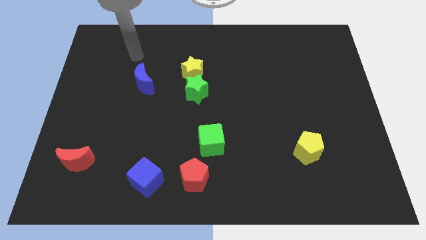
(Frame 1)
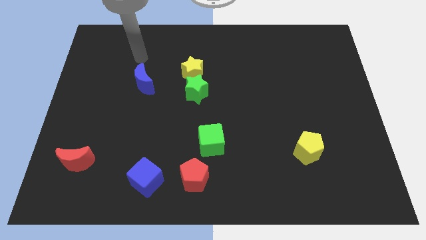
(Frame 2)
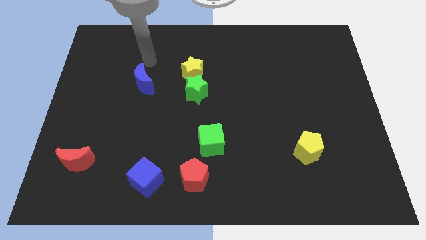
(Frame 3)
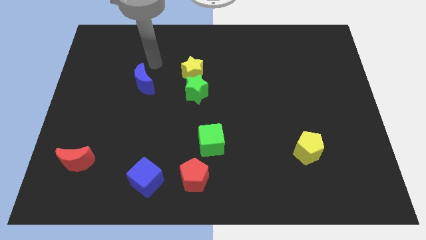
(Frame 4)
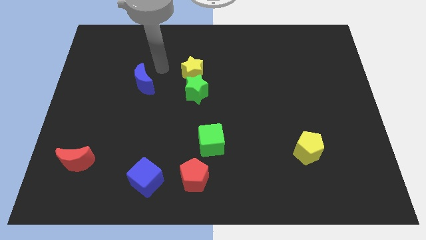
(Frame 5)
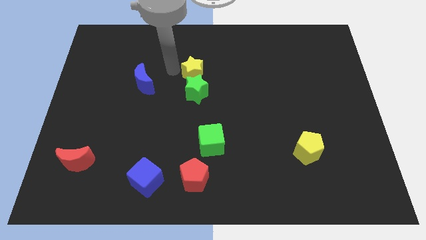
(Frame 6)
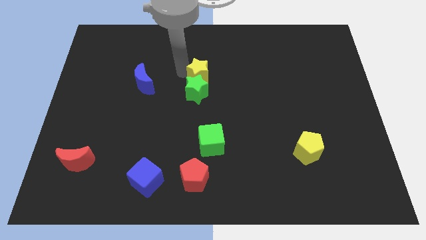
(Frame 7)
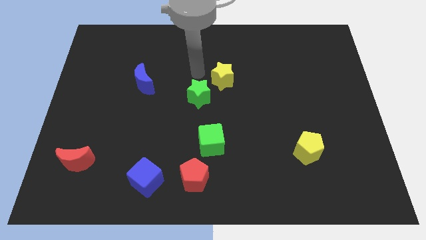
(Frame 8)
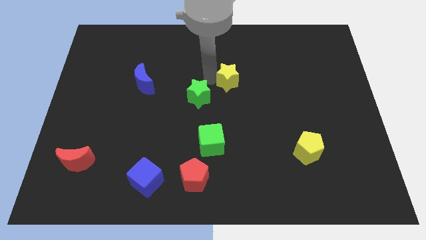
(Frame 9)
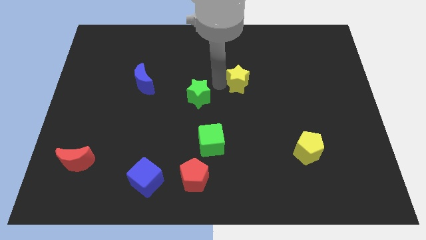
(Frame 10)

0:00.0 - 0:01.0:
separate the green star from the yellow star

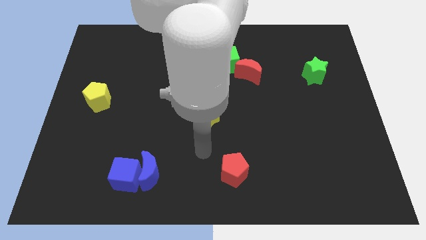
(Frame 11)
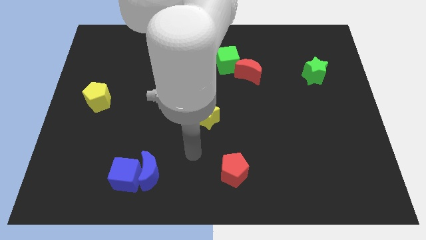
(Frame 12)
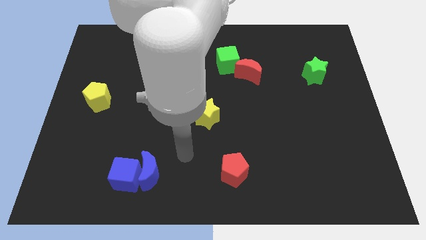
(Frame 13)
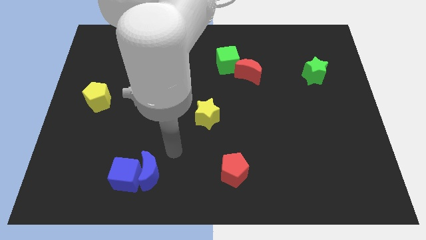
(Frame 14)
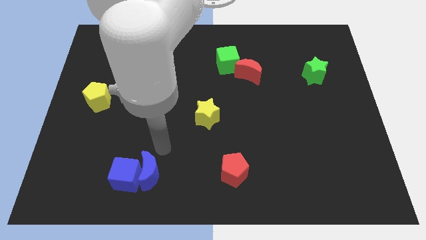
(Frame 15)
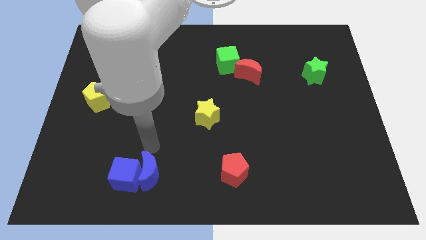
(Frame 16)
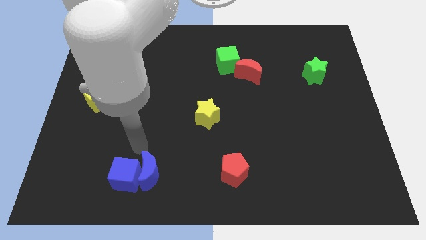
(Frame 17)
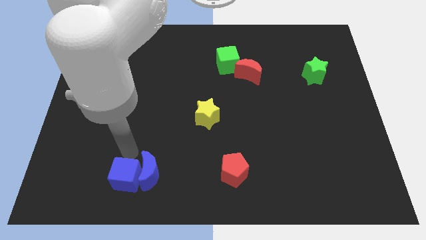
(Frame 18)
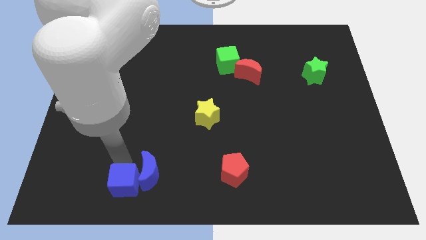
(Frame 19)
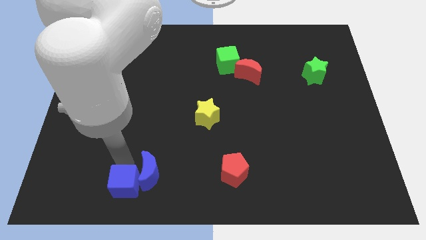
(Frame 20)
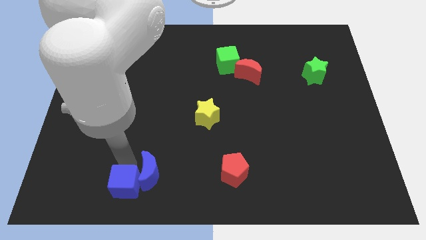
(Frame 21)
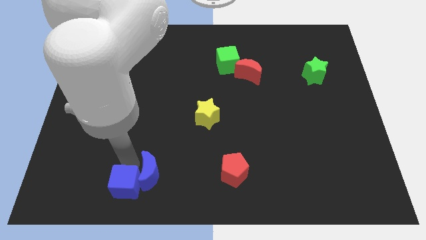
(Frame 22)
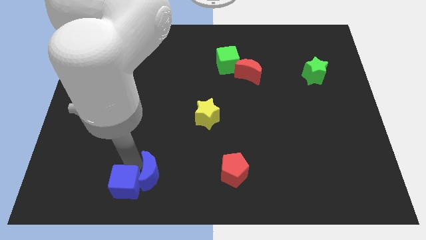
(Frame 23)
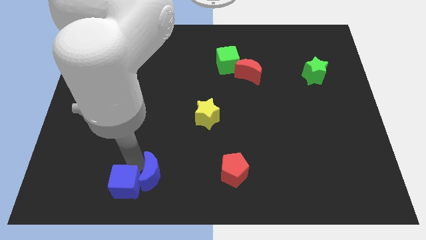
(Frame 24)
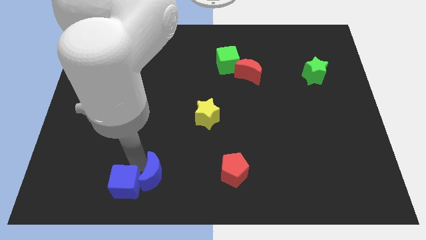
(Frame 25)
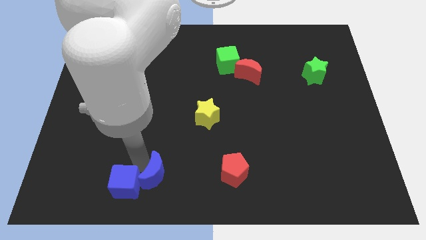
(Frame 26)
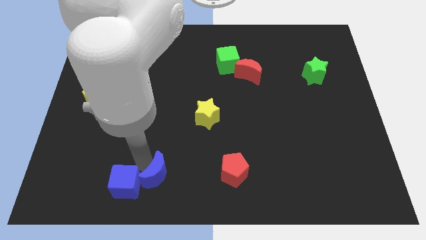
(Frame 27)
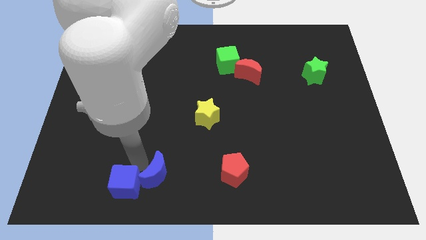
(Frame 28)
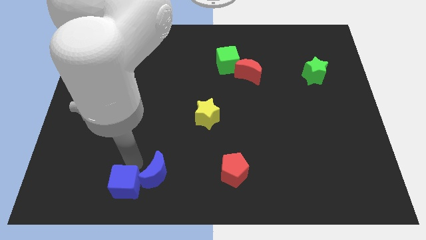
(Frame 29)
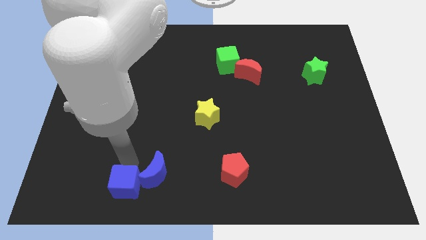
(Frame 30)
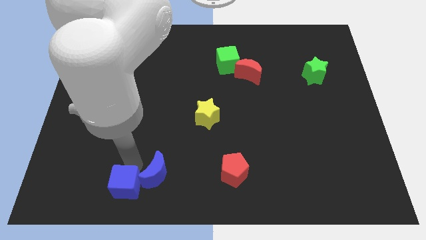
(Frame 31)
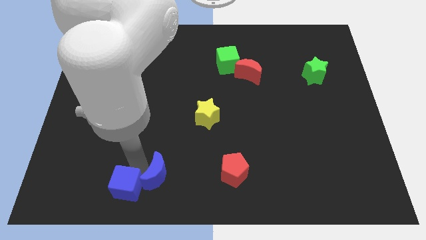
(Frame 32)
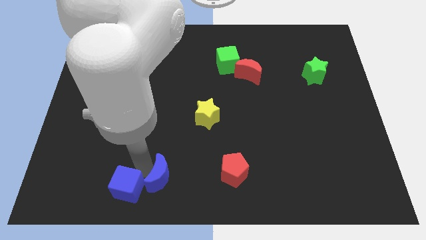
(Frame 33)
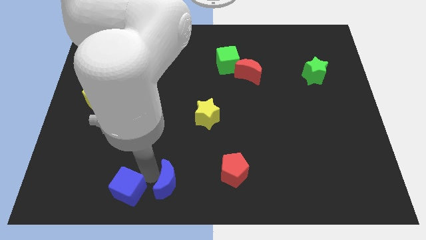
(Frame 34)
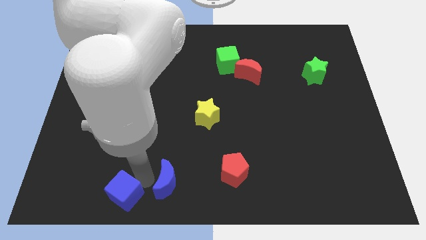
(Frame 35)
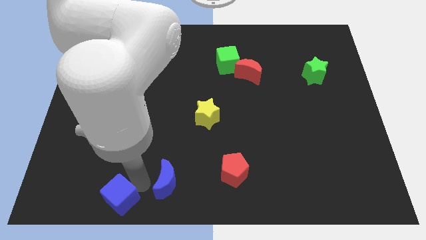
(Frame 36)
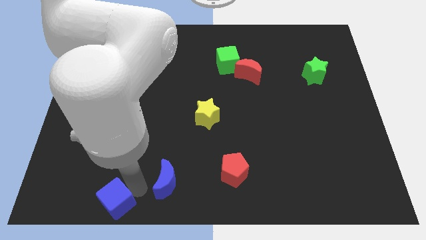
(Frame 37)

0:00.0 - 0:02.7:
pull the blue moon apart from the blue cube

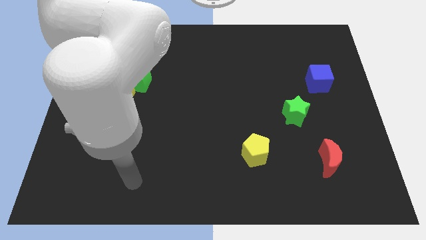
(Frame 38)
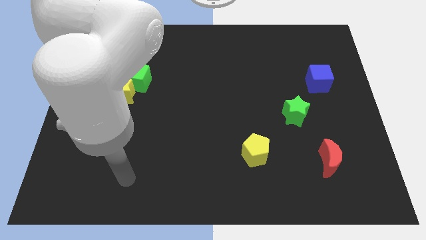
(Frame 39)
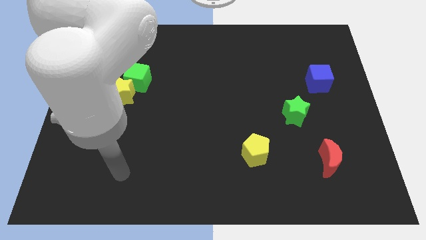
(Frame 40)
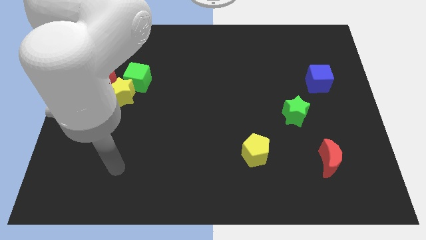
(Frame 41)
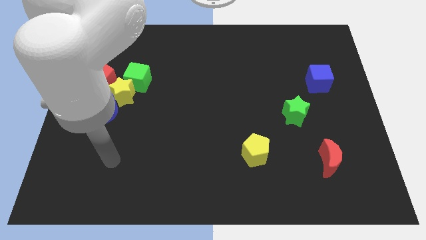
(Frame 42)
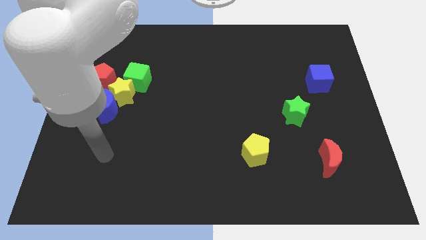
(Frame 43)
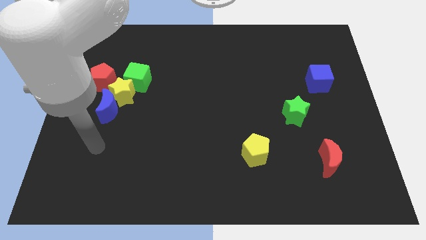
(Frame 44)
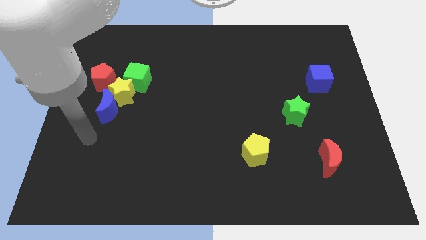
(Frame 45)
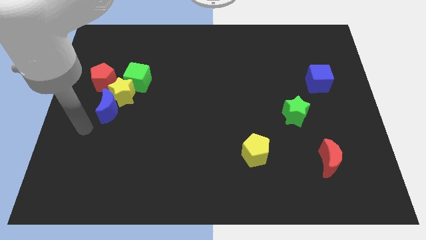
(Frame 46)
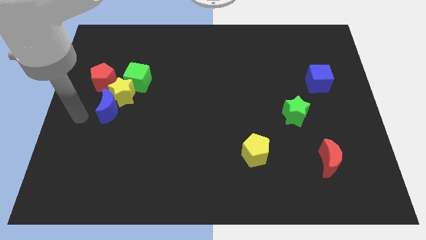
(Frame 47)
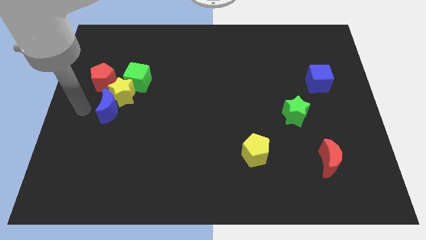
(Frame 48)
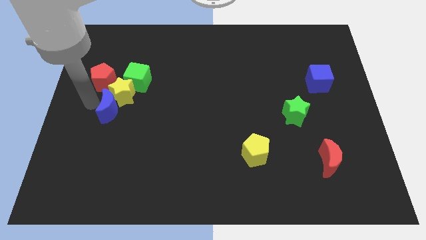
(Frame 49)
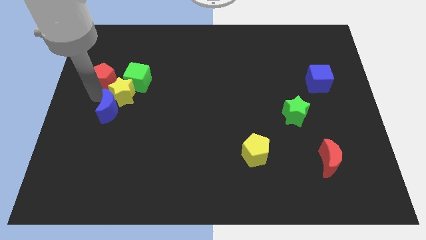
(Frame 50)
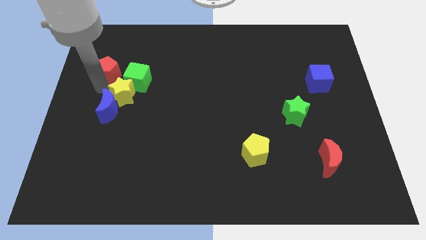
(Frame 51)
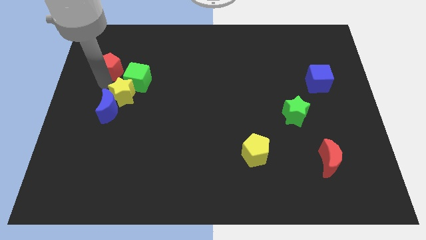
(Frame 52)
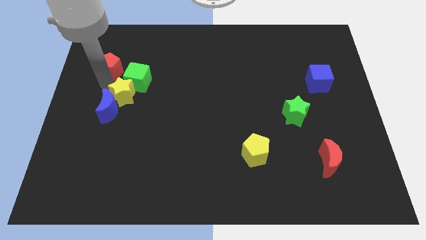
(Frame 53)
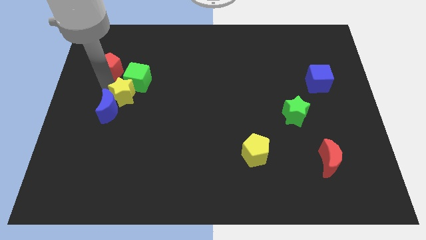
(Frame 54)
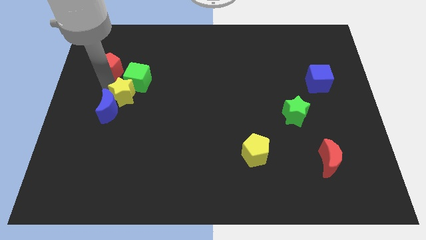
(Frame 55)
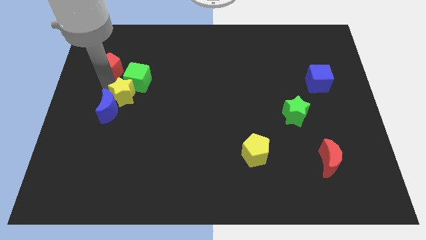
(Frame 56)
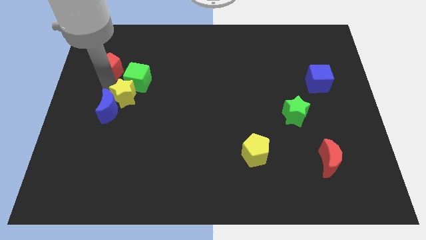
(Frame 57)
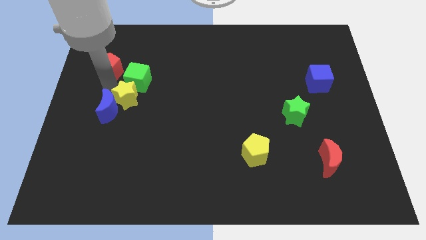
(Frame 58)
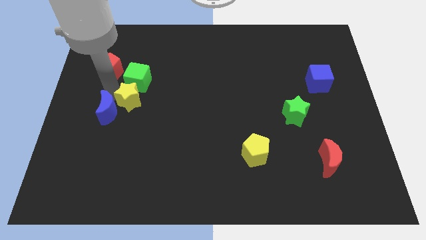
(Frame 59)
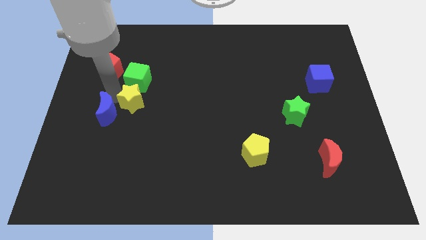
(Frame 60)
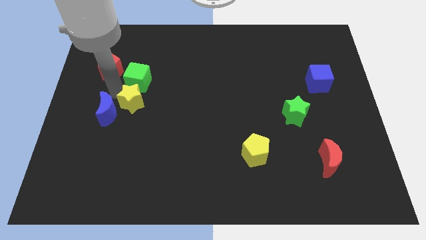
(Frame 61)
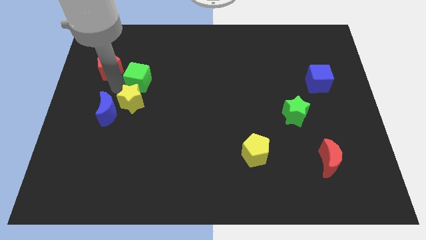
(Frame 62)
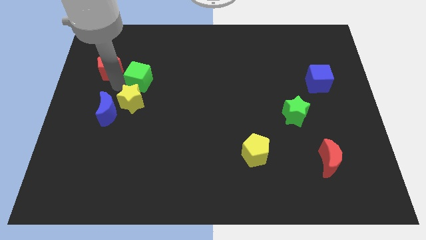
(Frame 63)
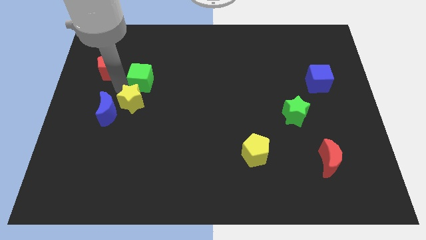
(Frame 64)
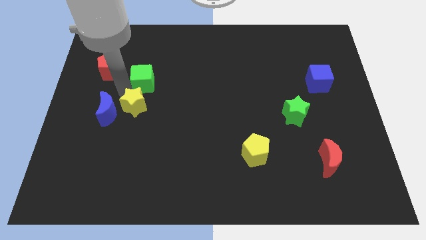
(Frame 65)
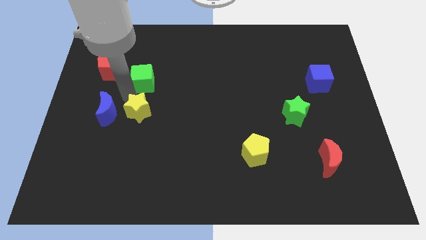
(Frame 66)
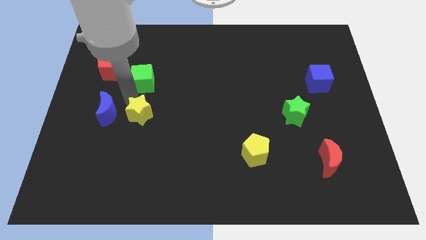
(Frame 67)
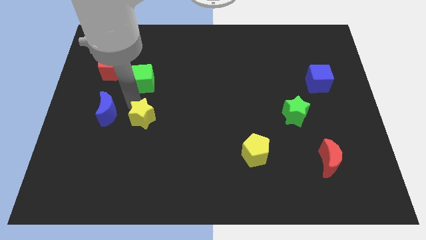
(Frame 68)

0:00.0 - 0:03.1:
pull the yellow star apart from the blue moon, green cube, and red pentagon

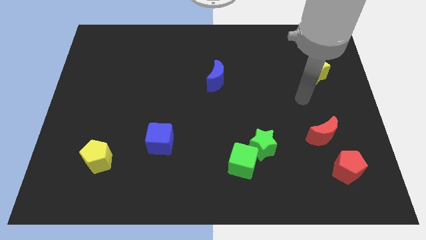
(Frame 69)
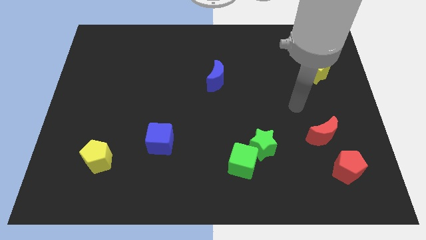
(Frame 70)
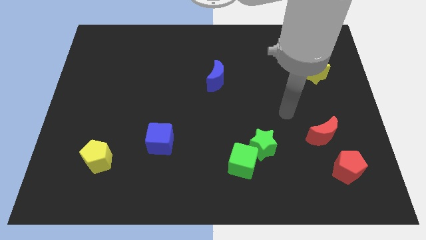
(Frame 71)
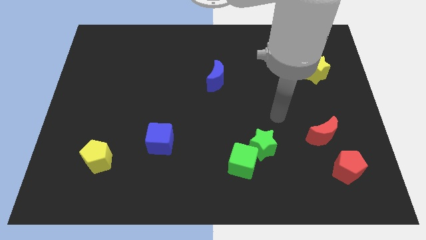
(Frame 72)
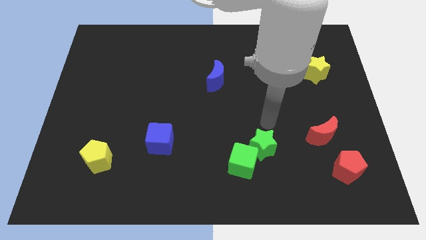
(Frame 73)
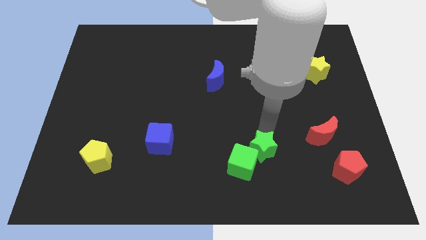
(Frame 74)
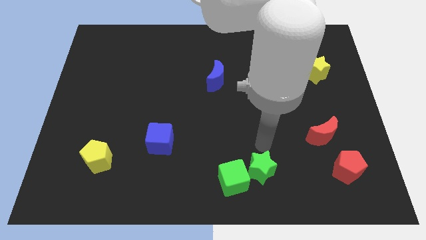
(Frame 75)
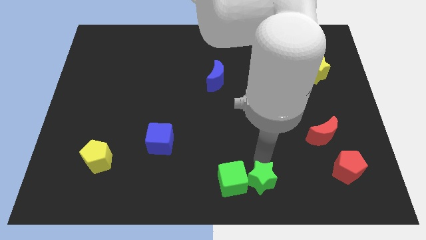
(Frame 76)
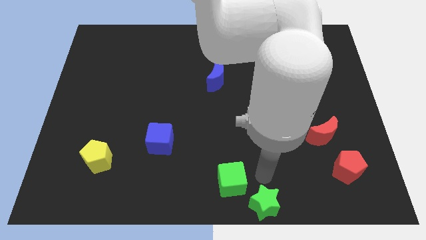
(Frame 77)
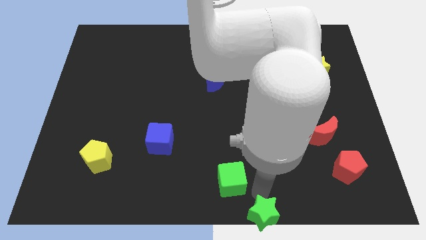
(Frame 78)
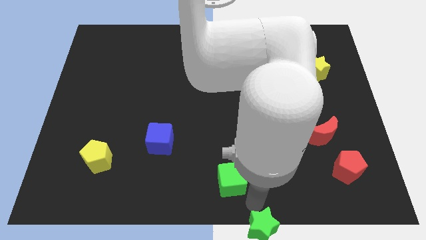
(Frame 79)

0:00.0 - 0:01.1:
separate the green cube from the green star

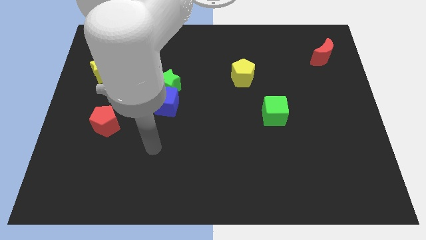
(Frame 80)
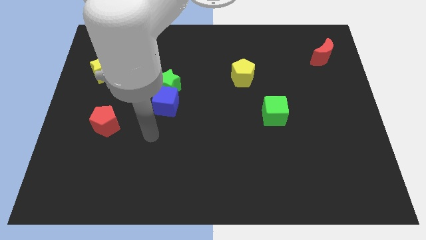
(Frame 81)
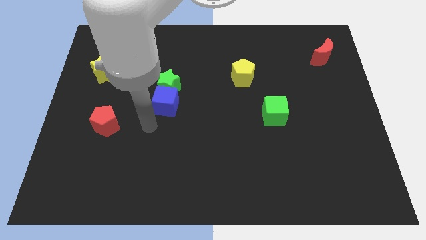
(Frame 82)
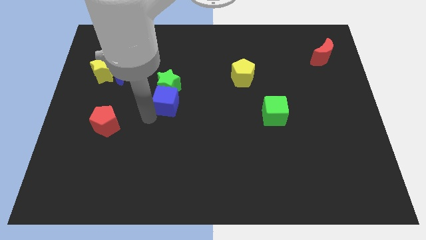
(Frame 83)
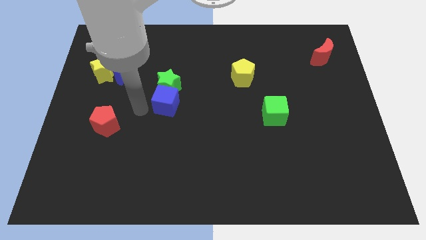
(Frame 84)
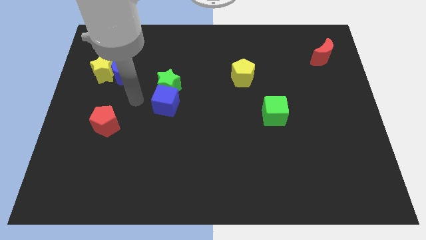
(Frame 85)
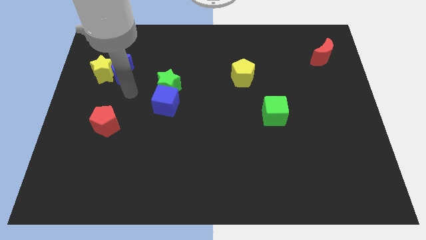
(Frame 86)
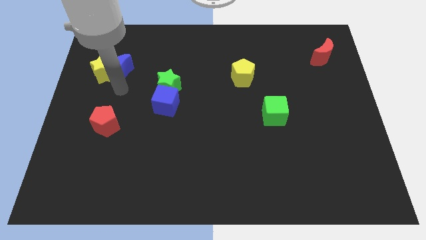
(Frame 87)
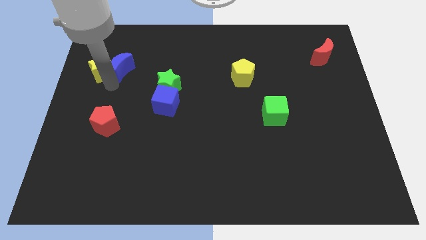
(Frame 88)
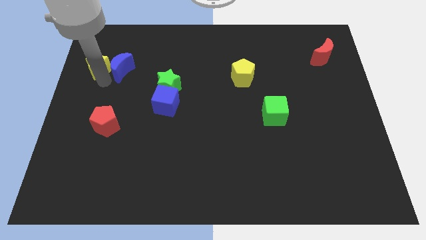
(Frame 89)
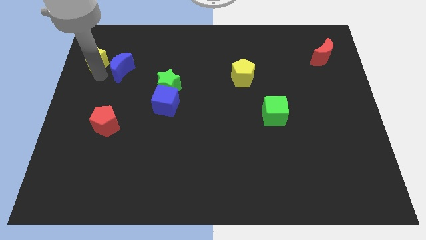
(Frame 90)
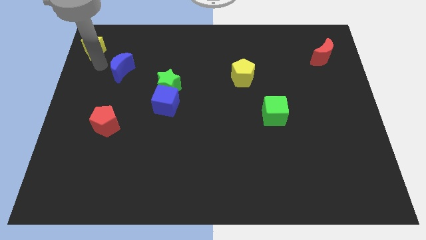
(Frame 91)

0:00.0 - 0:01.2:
pull the blue moon apart from the yellow star

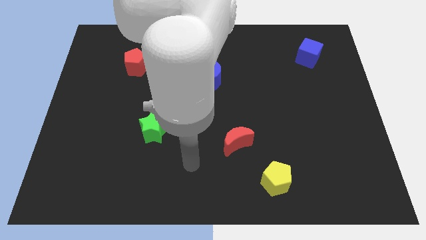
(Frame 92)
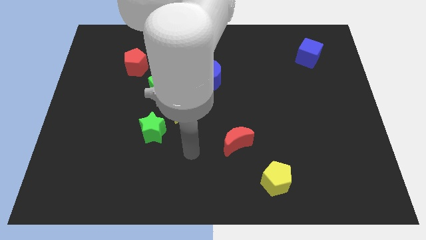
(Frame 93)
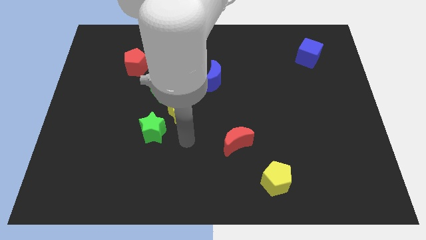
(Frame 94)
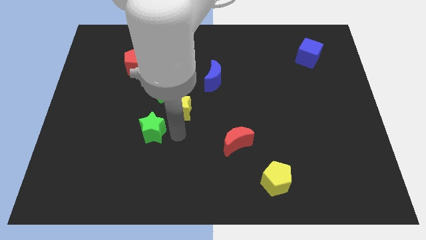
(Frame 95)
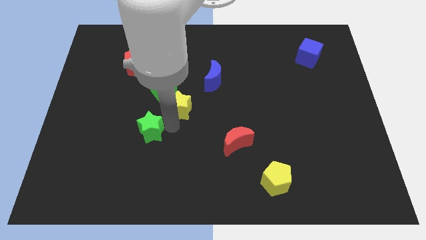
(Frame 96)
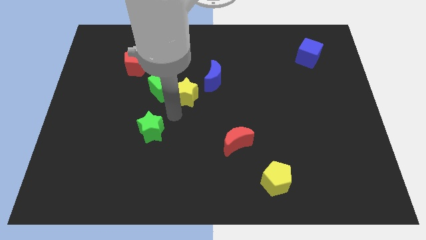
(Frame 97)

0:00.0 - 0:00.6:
pull the green star apart from the yellow star
